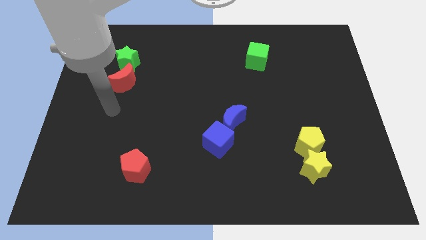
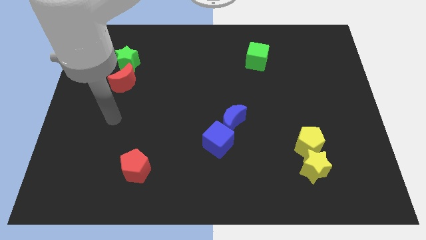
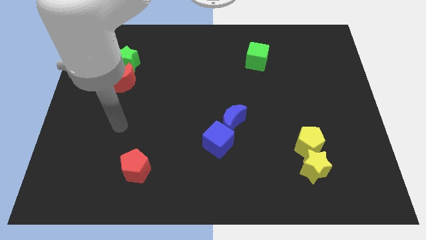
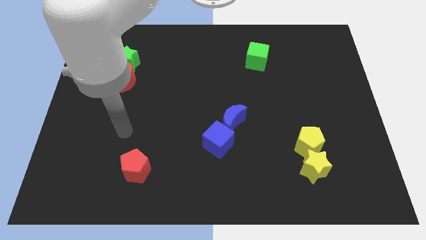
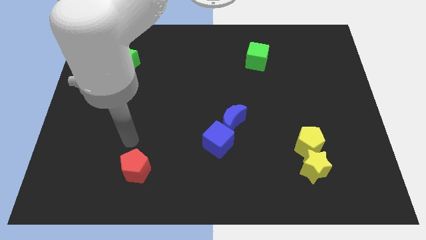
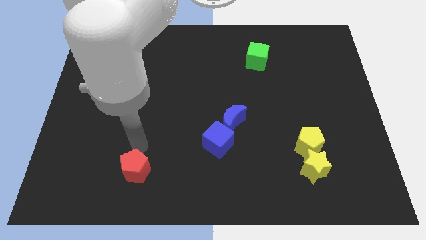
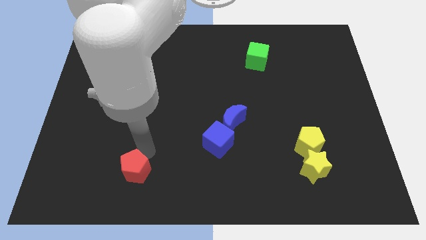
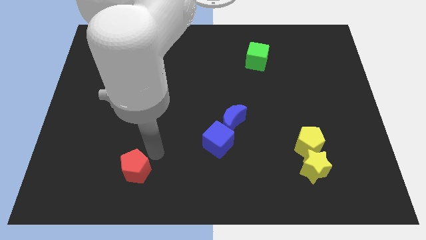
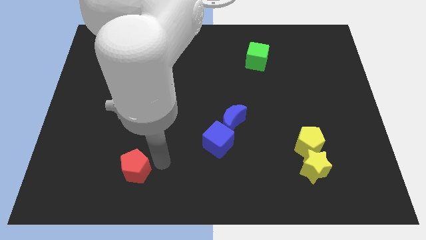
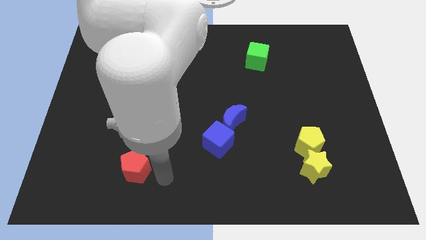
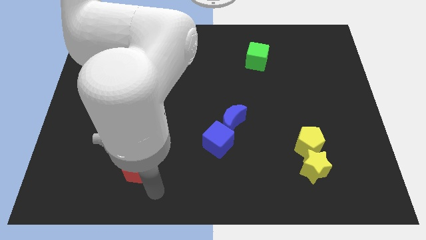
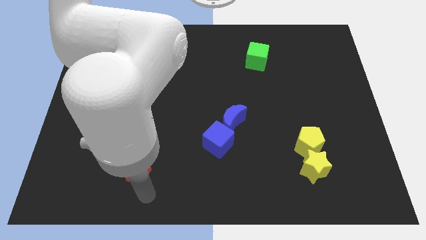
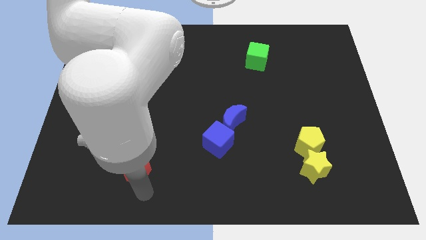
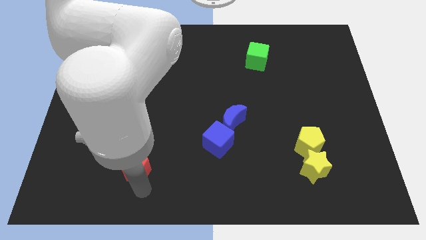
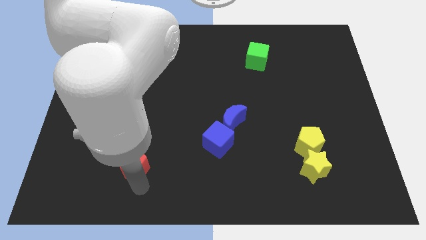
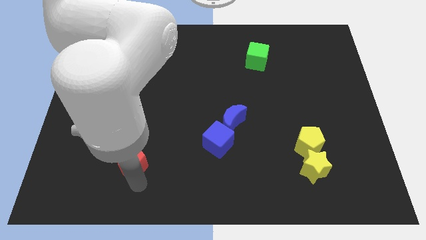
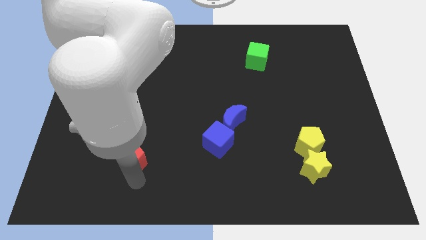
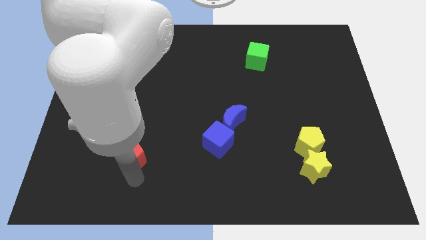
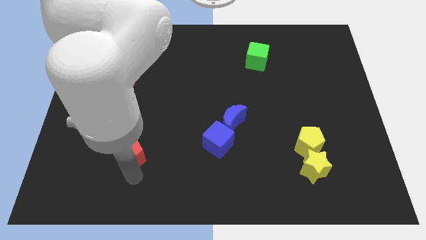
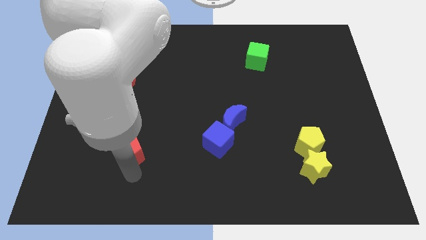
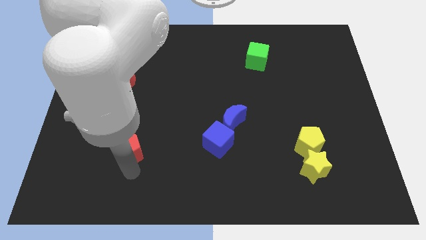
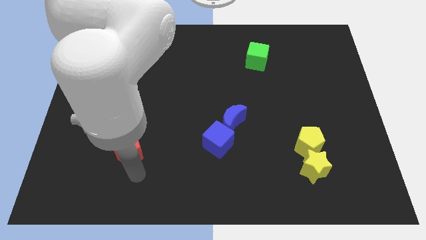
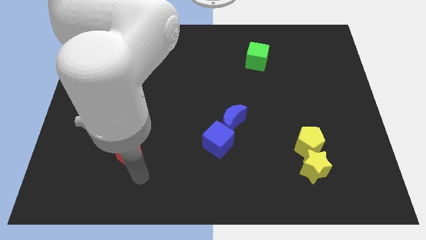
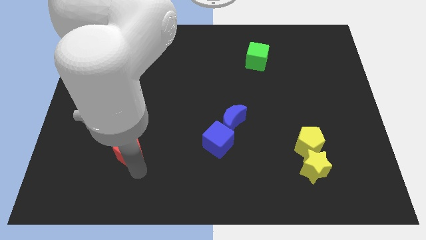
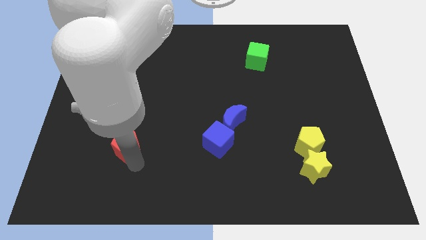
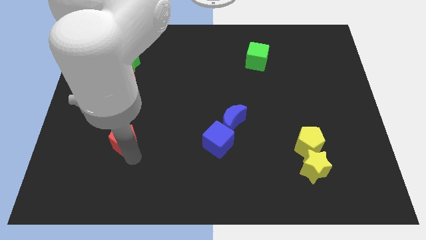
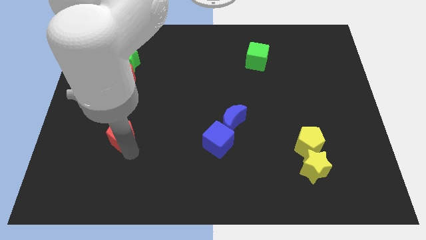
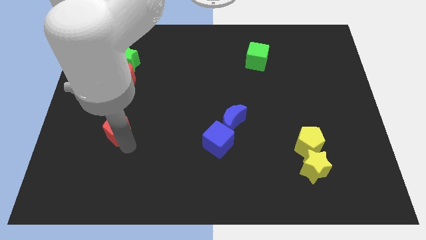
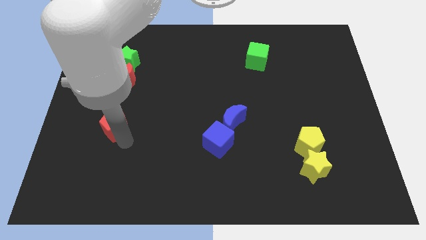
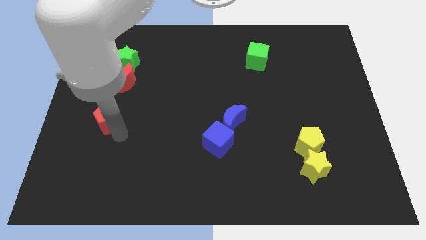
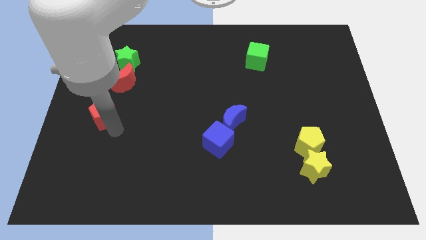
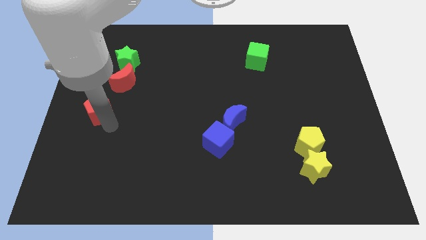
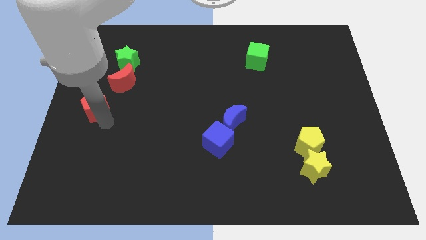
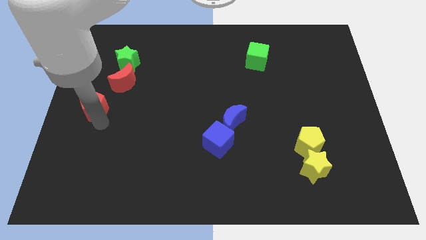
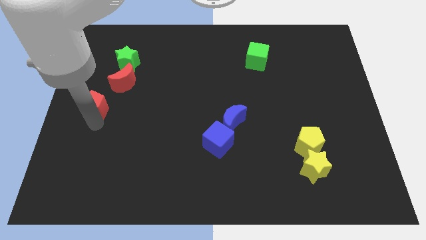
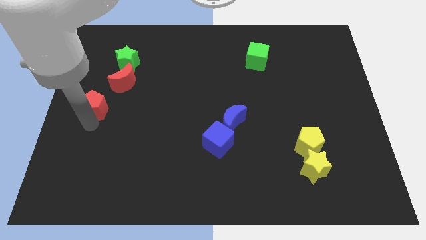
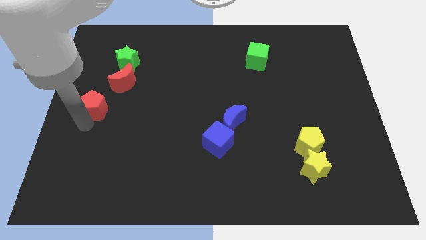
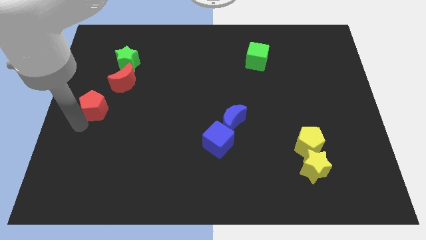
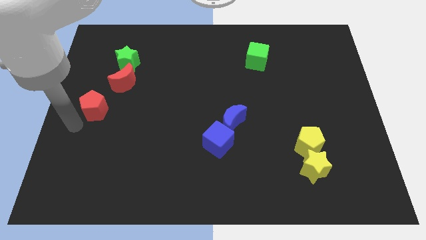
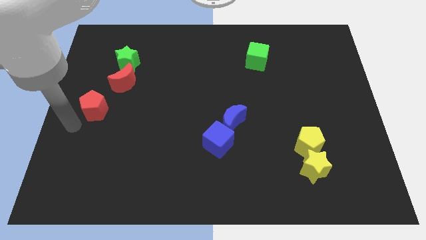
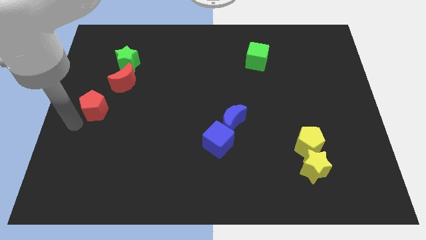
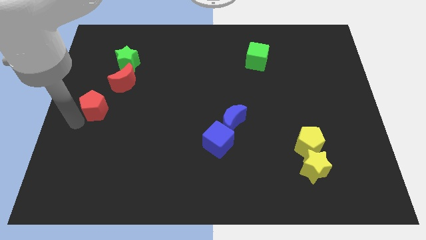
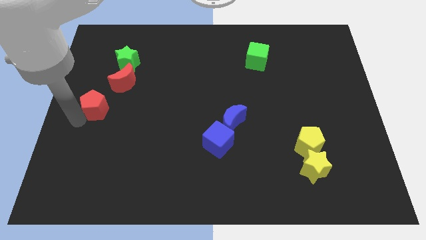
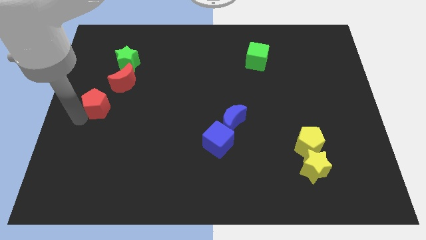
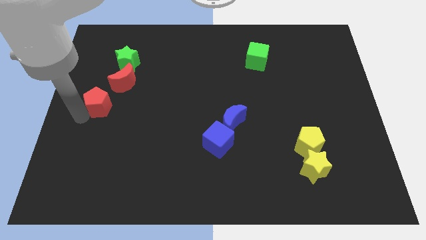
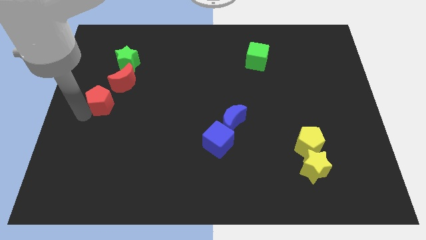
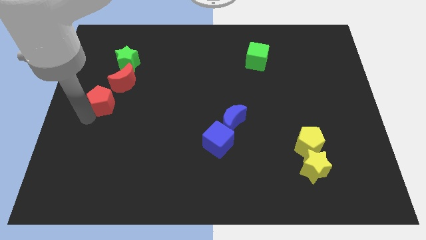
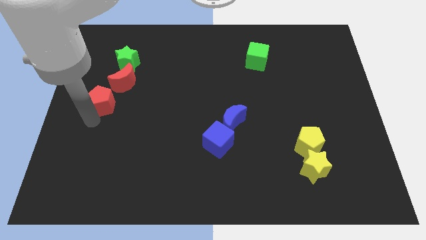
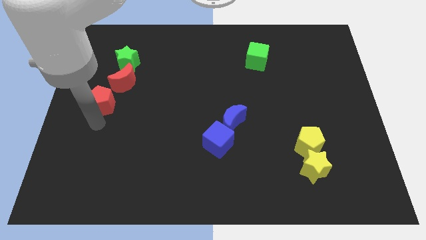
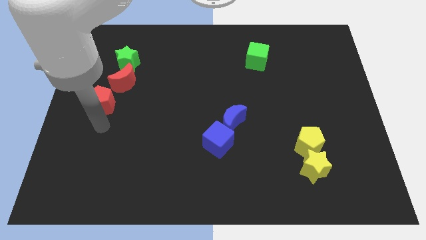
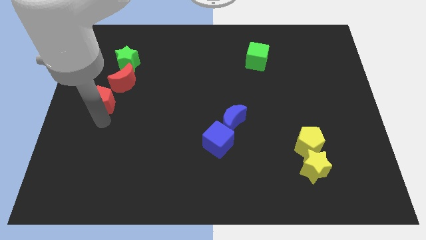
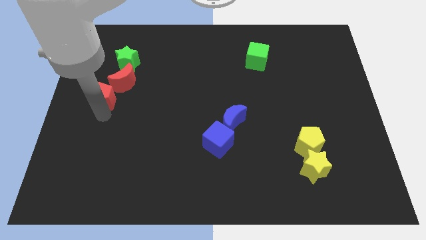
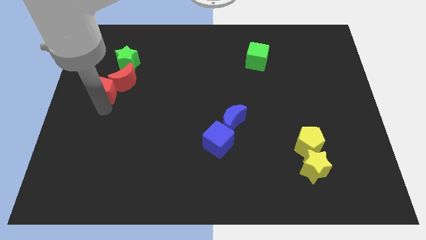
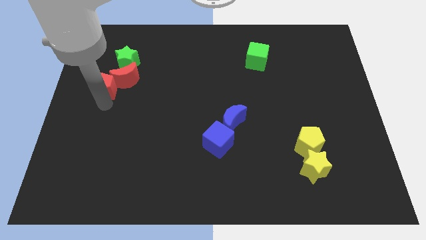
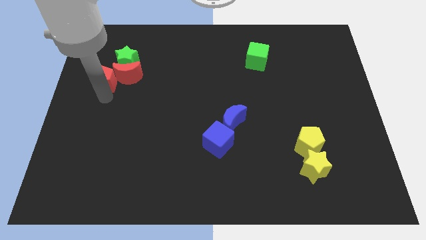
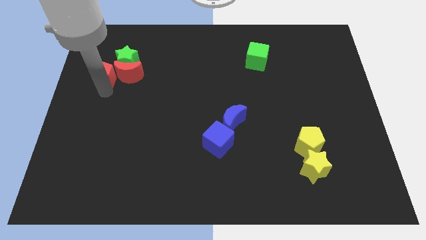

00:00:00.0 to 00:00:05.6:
put the red pentagon to the top left side of the red moon

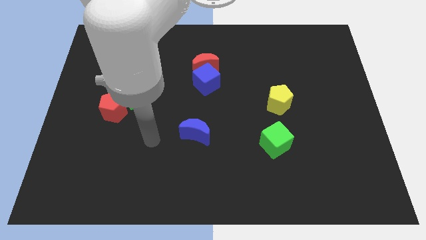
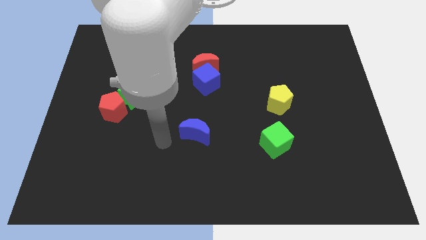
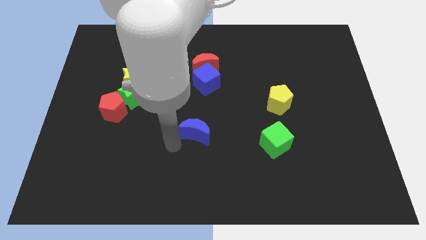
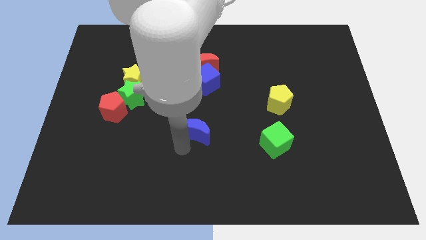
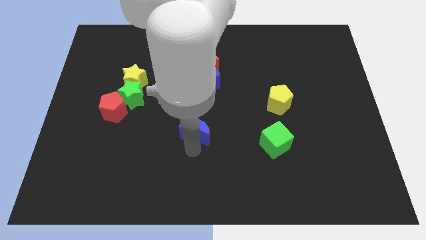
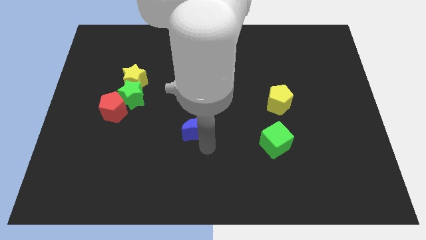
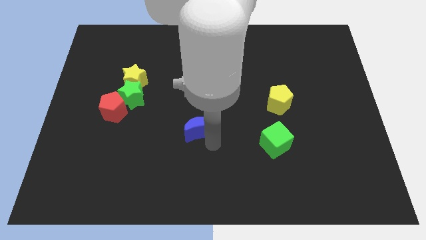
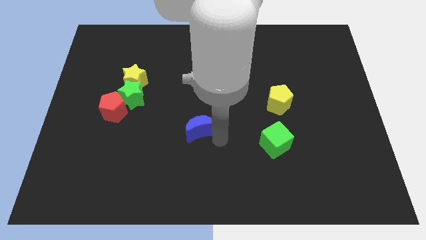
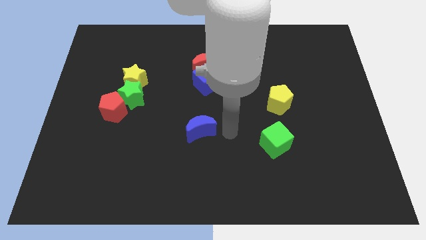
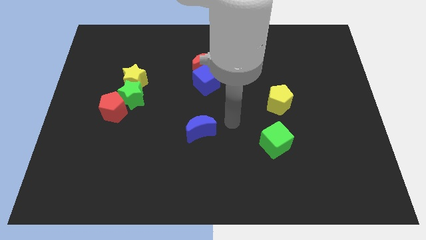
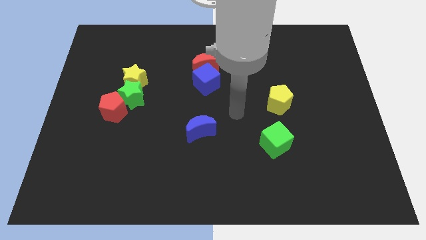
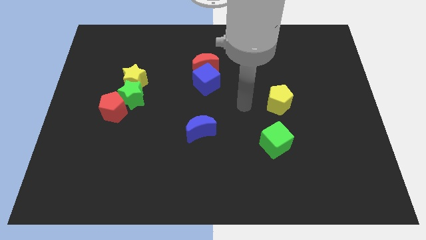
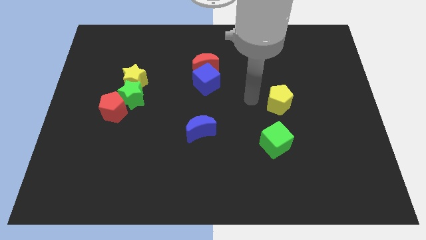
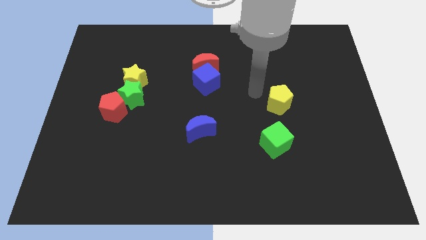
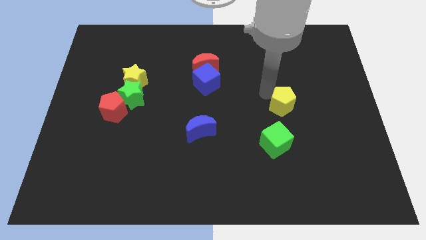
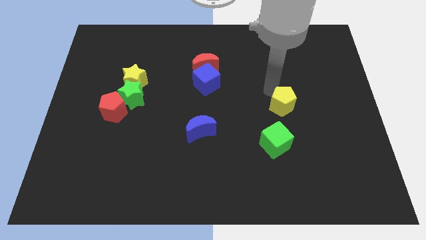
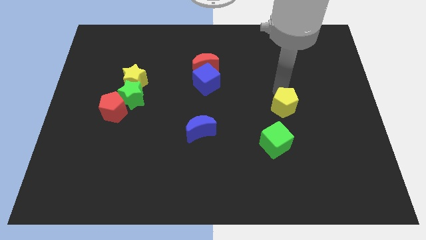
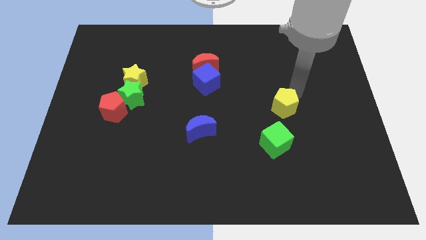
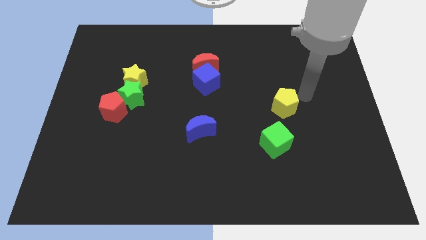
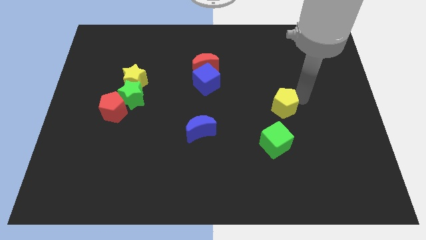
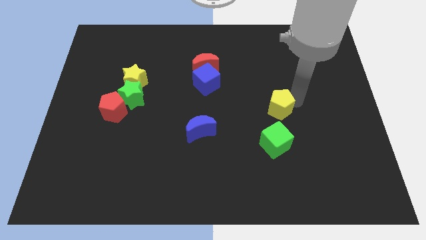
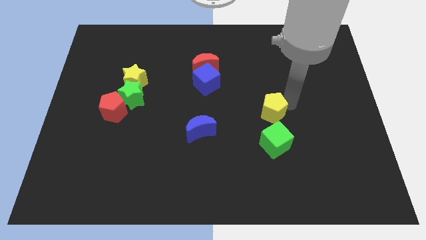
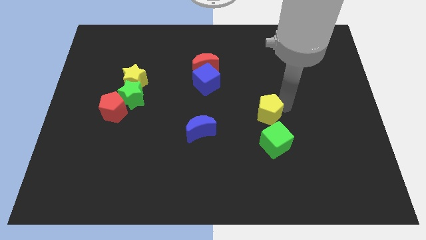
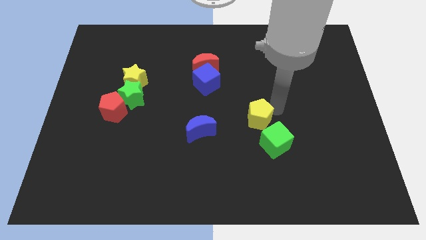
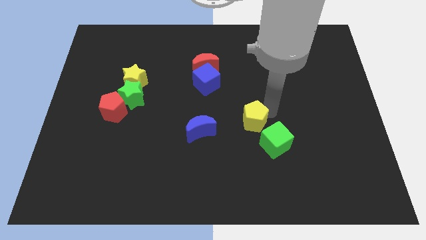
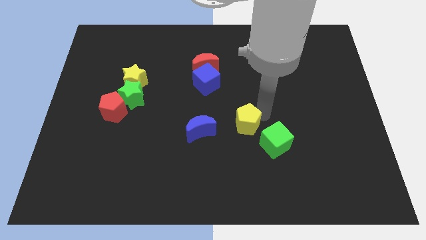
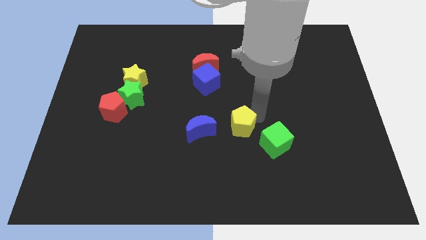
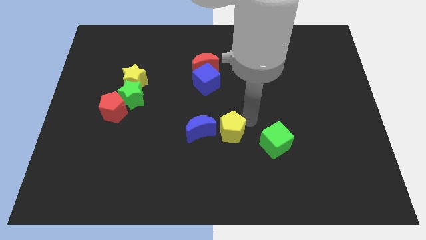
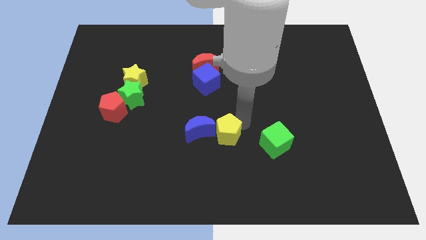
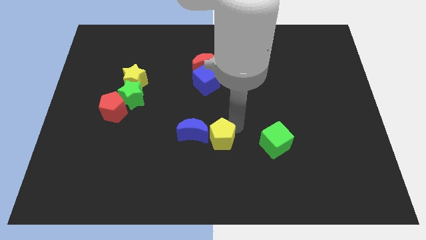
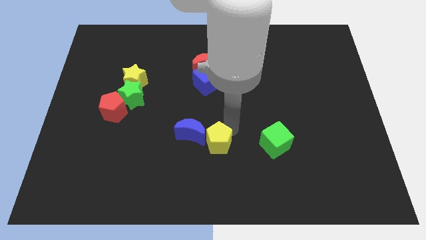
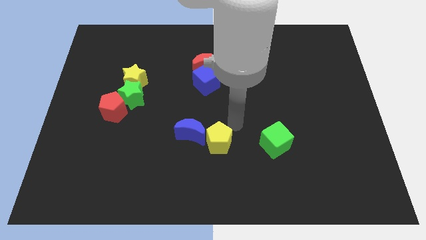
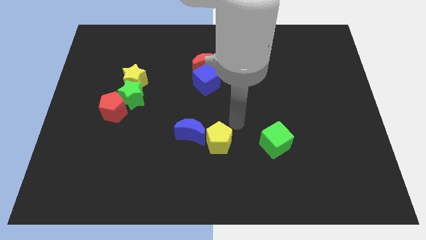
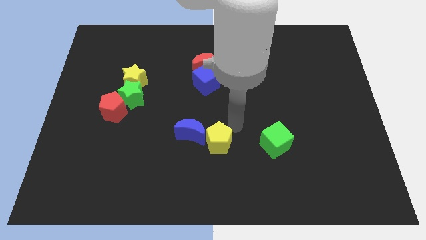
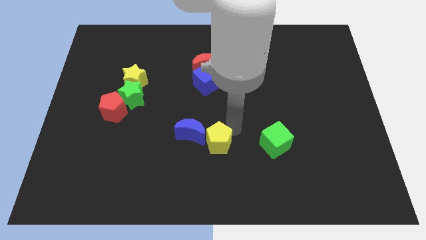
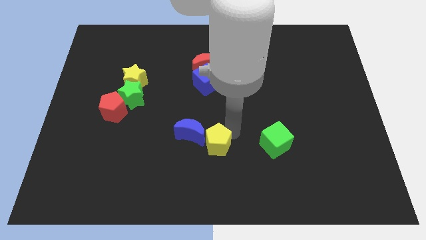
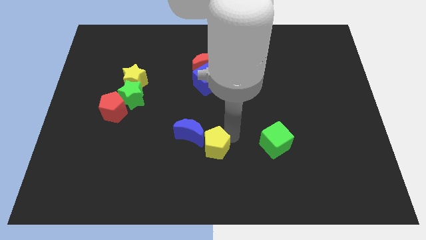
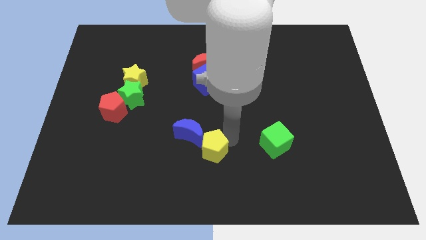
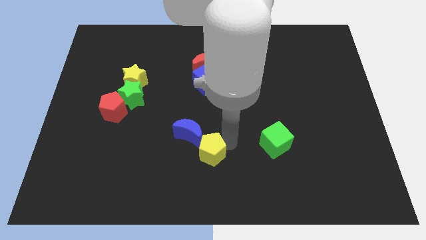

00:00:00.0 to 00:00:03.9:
put the yellow pentagon to the bottom side of the blue moon
